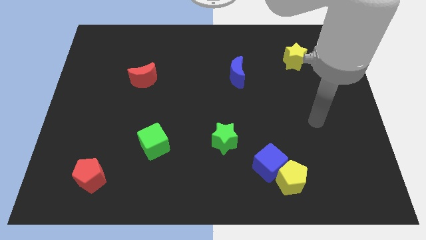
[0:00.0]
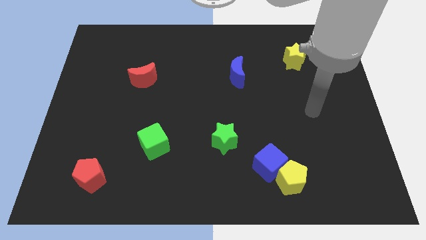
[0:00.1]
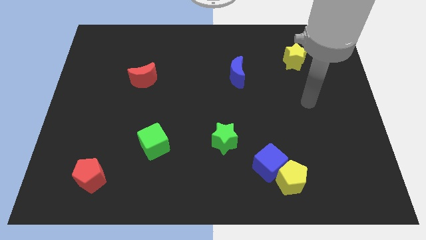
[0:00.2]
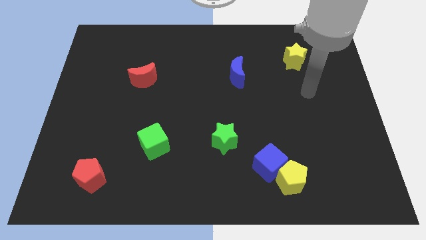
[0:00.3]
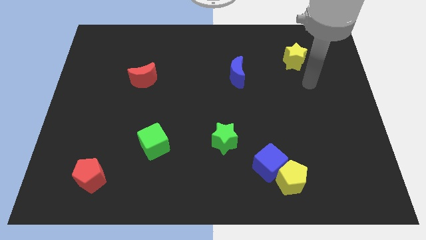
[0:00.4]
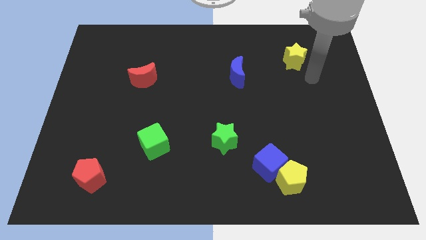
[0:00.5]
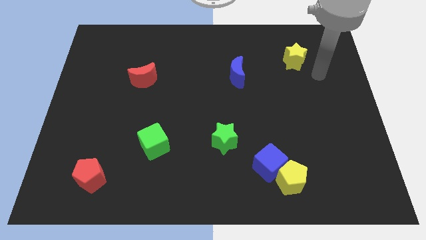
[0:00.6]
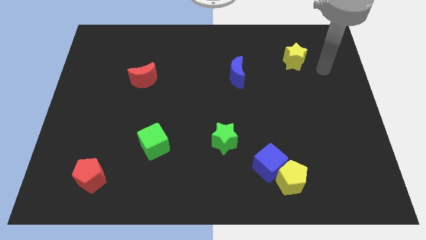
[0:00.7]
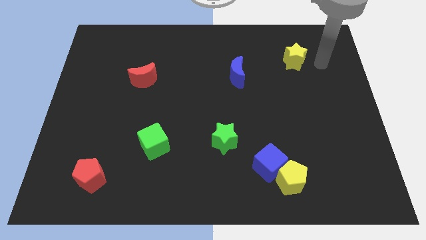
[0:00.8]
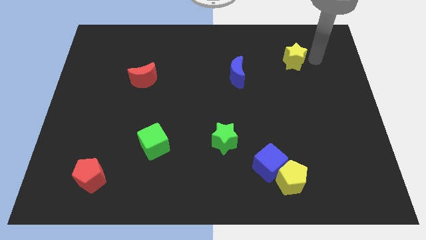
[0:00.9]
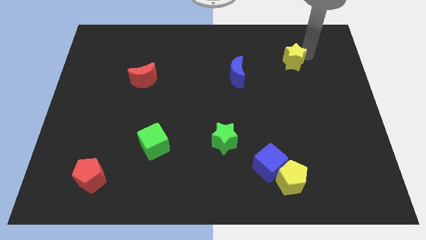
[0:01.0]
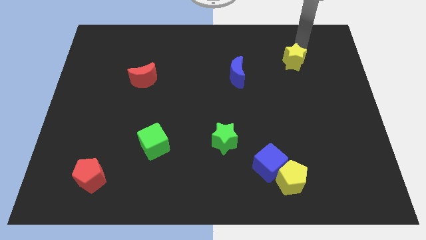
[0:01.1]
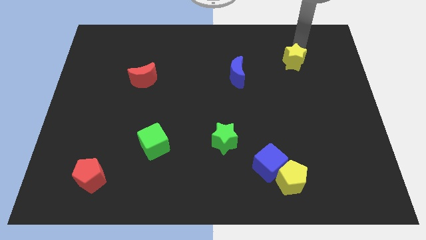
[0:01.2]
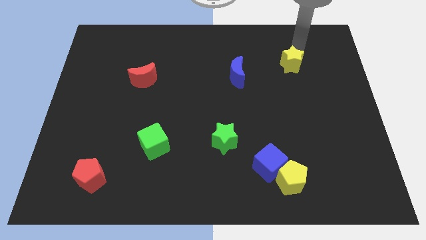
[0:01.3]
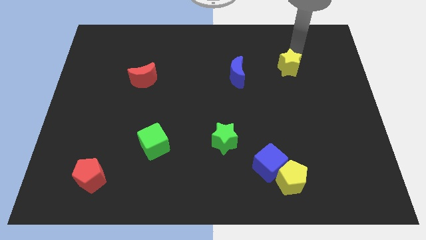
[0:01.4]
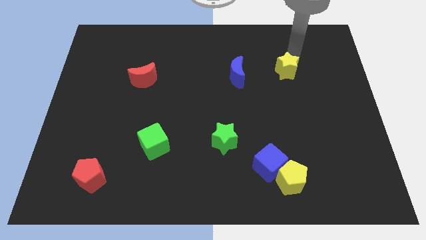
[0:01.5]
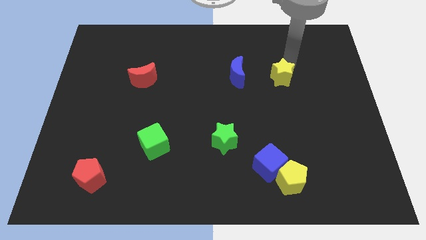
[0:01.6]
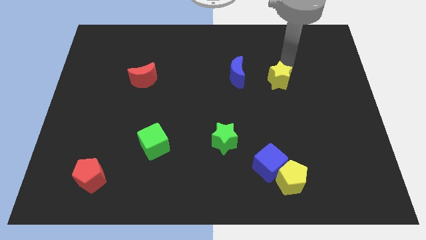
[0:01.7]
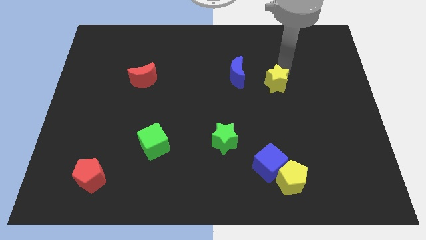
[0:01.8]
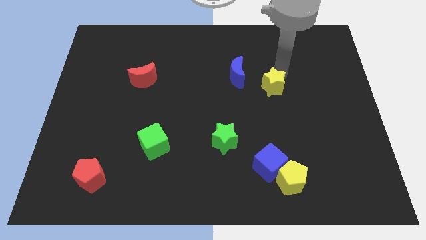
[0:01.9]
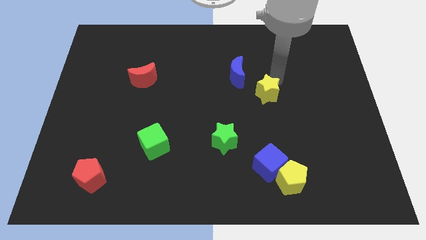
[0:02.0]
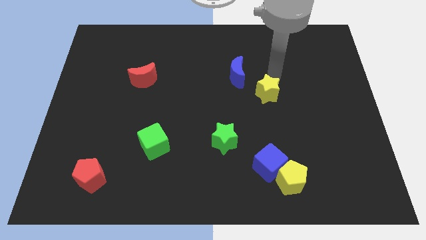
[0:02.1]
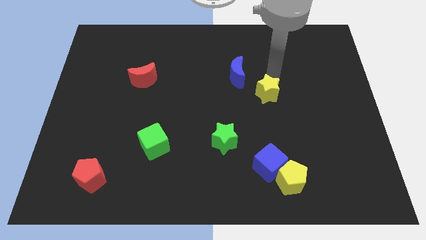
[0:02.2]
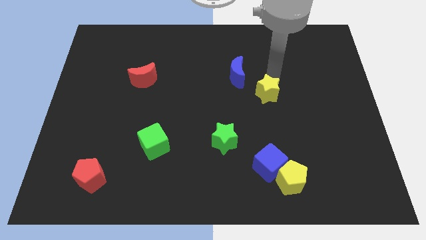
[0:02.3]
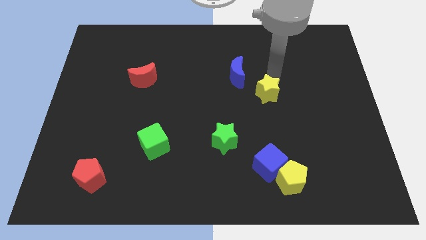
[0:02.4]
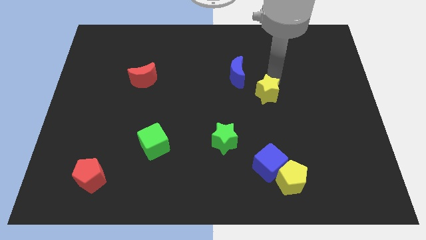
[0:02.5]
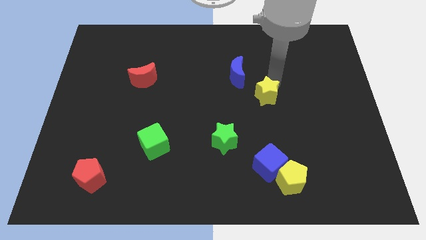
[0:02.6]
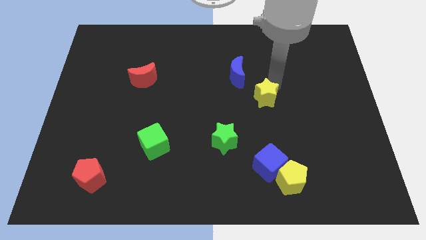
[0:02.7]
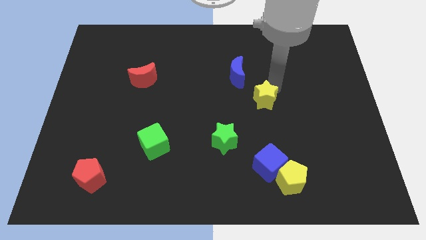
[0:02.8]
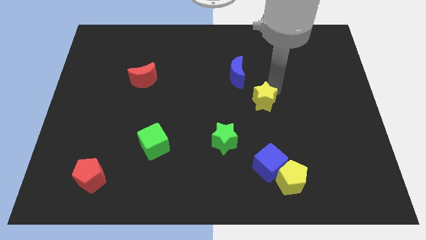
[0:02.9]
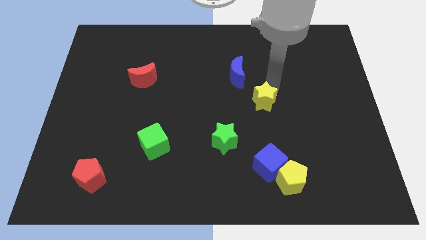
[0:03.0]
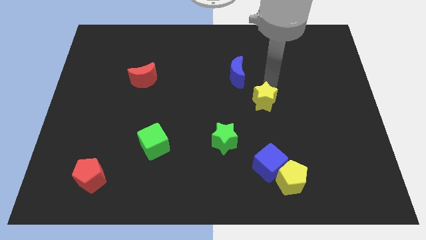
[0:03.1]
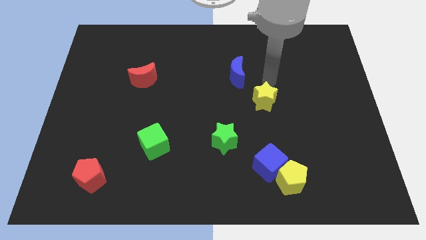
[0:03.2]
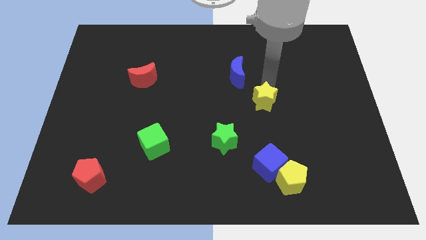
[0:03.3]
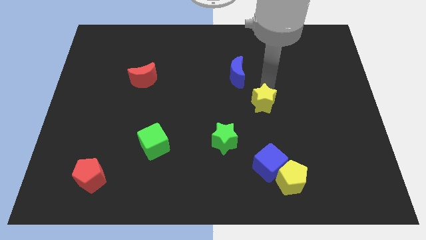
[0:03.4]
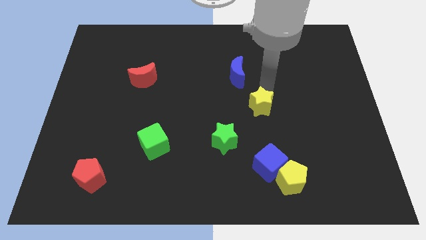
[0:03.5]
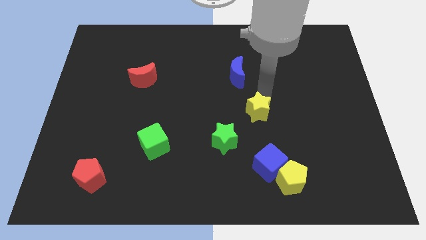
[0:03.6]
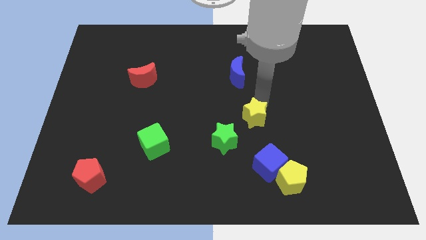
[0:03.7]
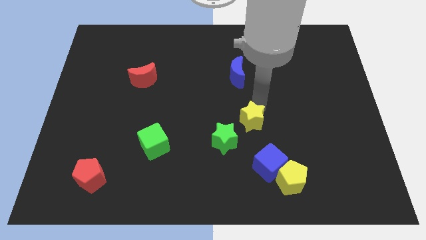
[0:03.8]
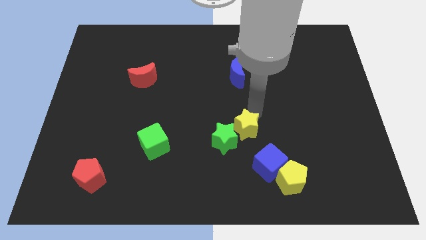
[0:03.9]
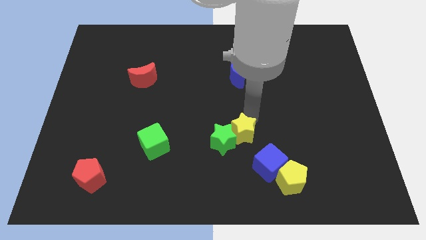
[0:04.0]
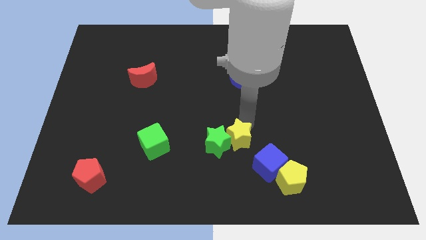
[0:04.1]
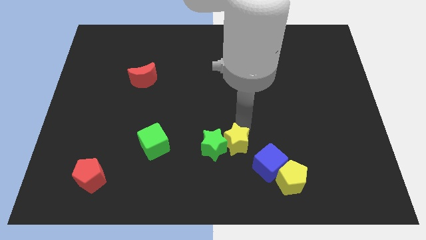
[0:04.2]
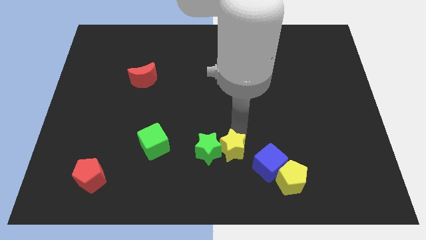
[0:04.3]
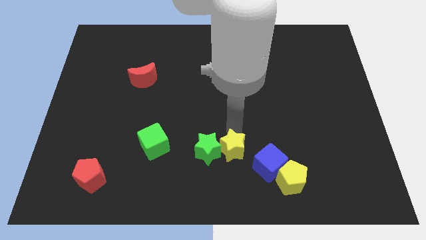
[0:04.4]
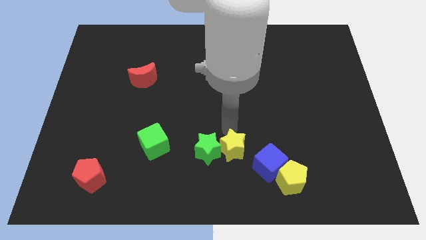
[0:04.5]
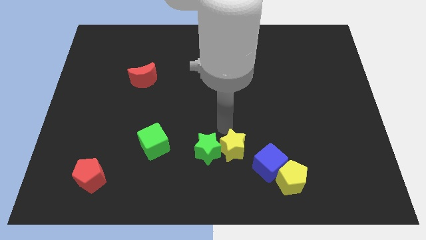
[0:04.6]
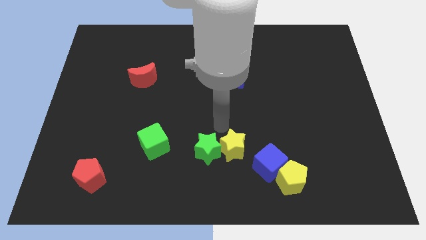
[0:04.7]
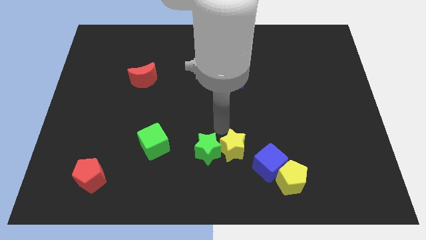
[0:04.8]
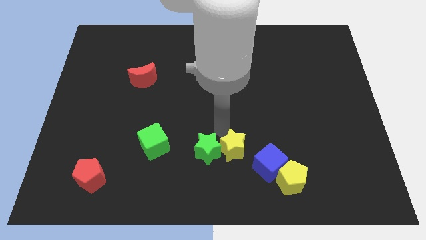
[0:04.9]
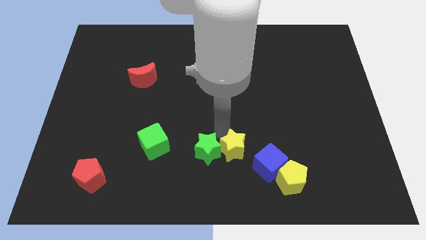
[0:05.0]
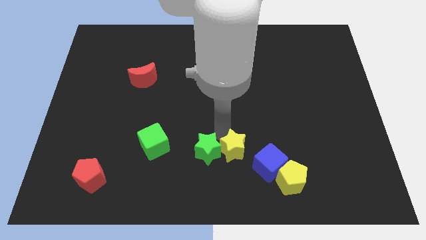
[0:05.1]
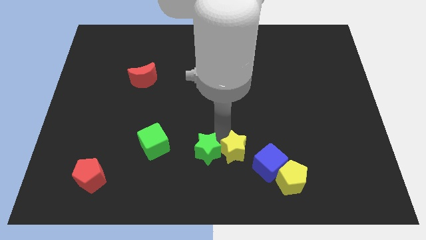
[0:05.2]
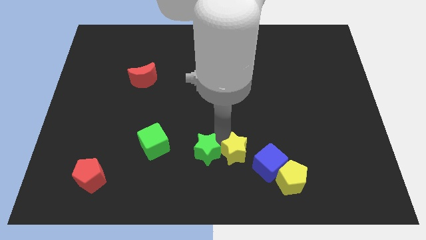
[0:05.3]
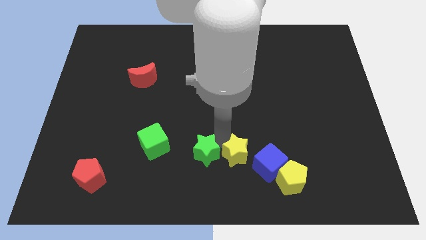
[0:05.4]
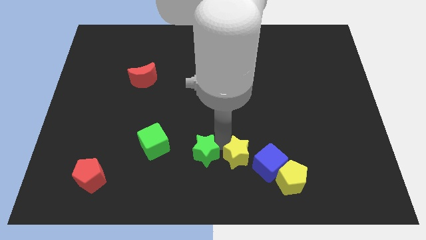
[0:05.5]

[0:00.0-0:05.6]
move the yellow star to the bottom
